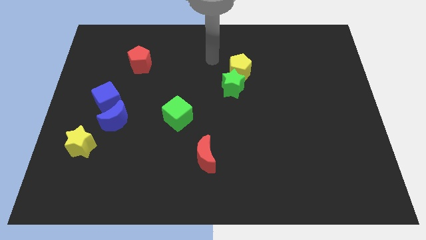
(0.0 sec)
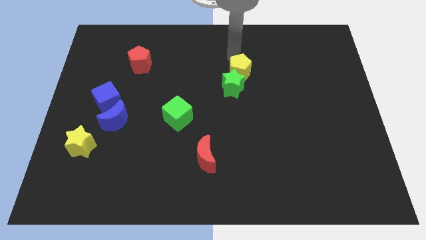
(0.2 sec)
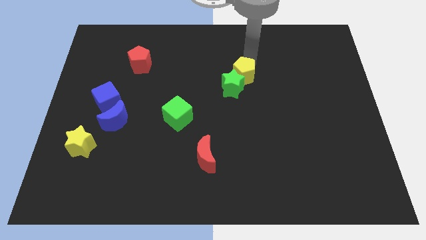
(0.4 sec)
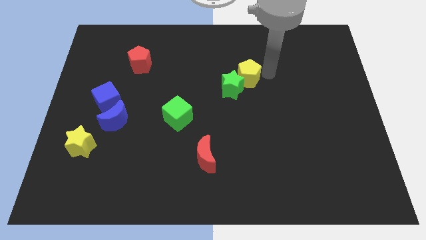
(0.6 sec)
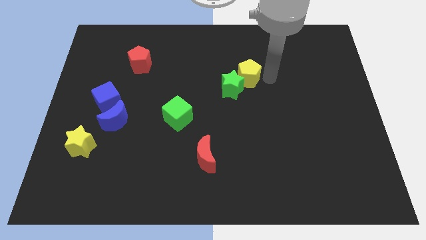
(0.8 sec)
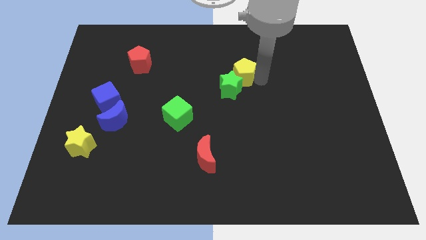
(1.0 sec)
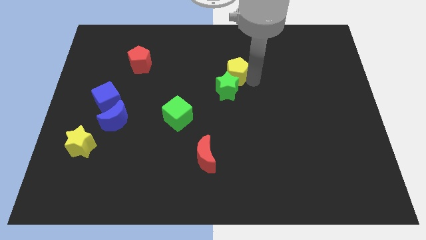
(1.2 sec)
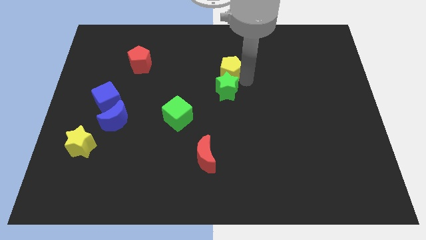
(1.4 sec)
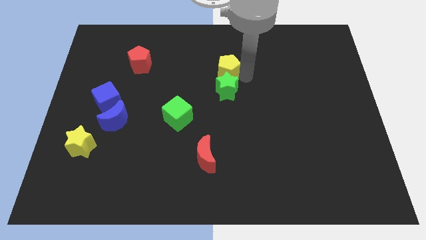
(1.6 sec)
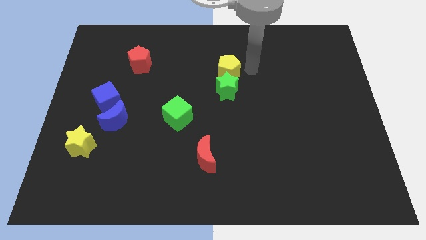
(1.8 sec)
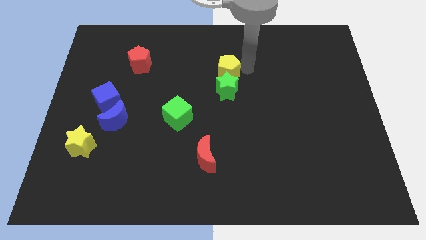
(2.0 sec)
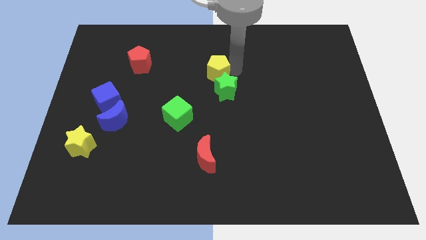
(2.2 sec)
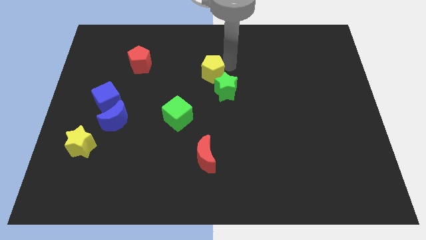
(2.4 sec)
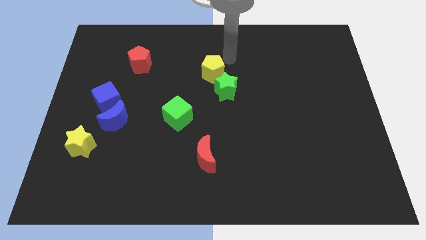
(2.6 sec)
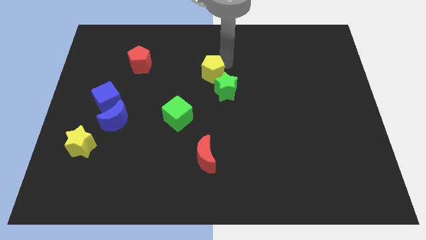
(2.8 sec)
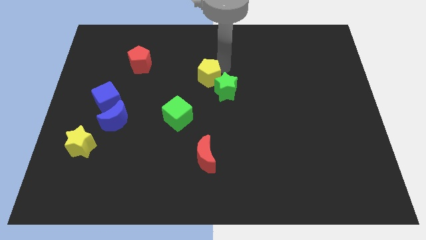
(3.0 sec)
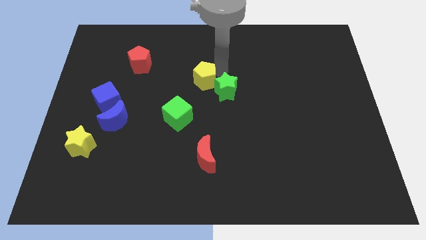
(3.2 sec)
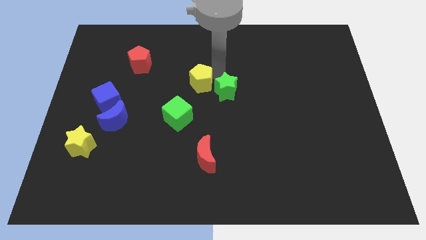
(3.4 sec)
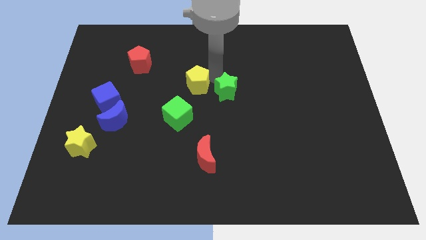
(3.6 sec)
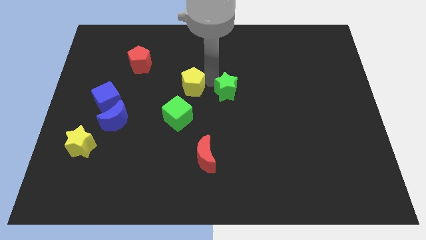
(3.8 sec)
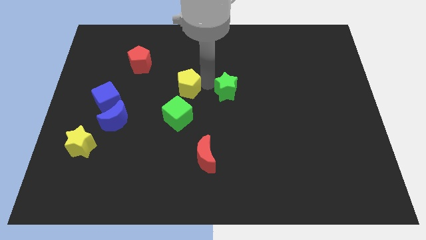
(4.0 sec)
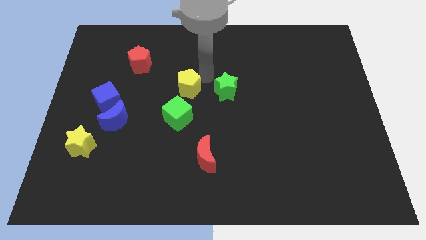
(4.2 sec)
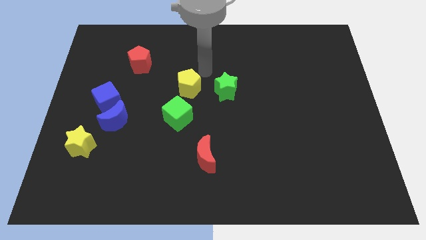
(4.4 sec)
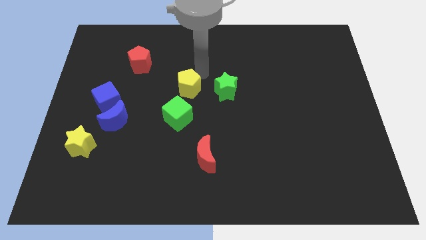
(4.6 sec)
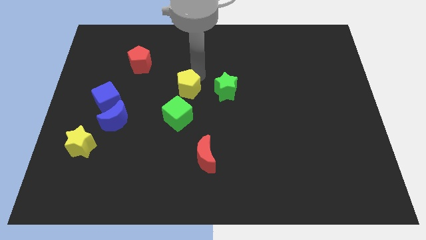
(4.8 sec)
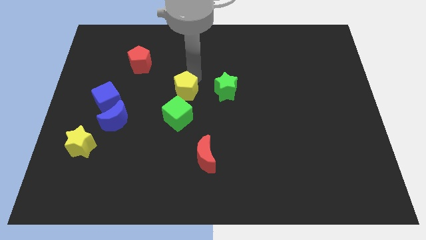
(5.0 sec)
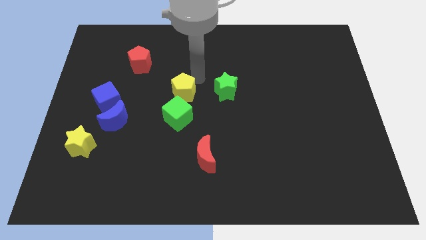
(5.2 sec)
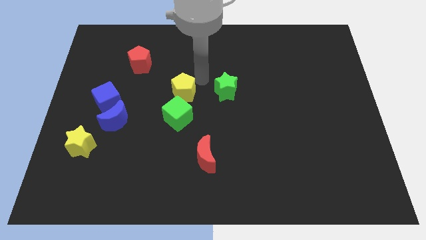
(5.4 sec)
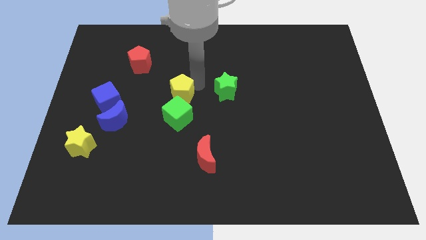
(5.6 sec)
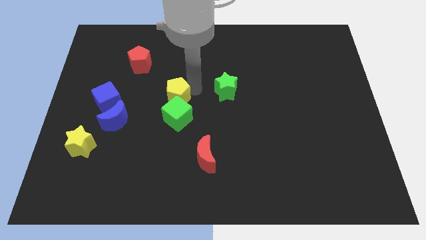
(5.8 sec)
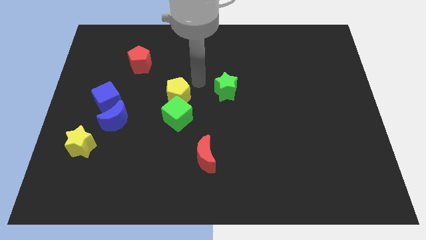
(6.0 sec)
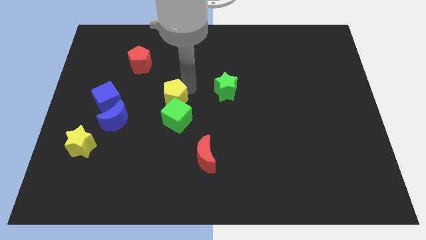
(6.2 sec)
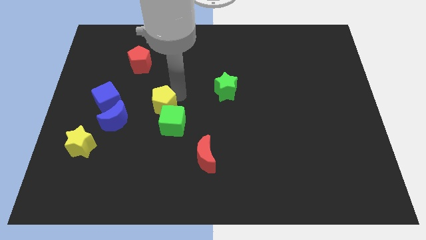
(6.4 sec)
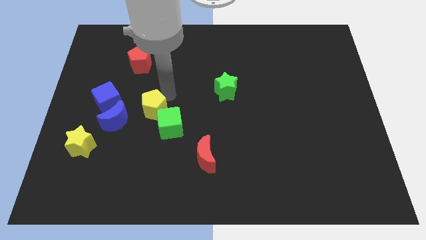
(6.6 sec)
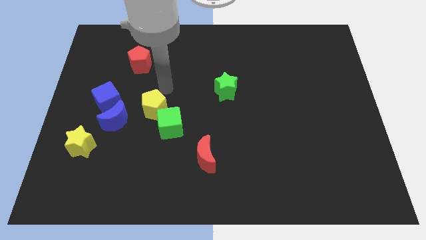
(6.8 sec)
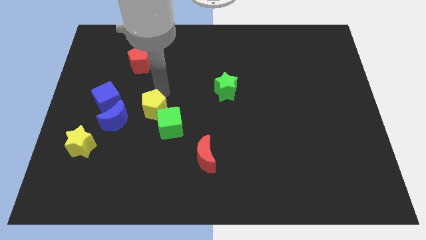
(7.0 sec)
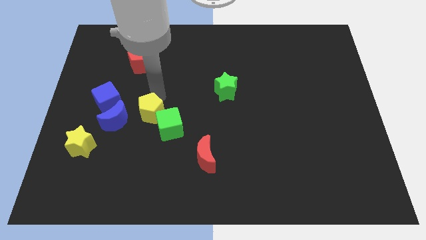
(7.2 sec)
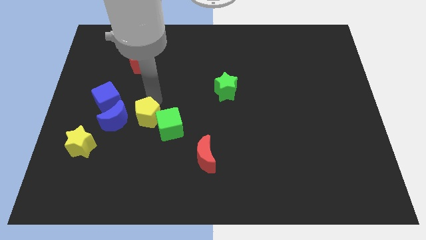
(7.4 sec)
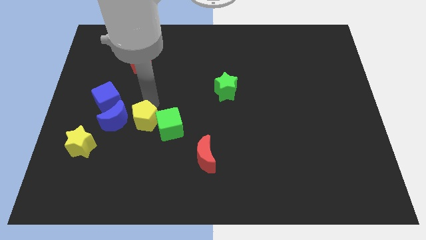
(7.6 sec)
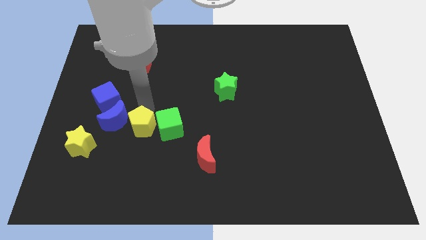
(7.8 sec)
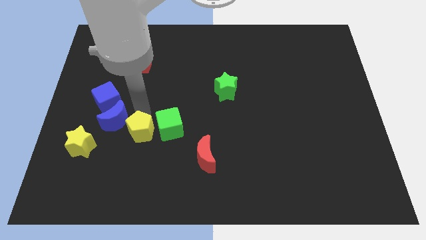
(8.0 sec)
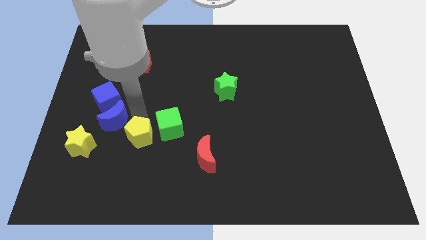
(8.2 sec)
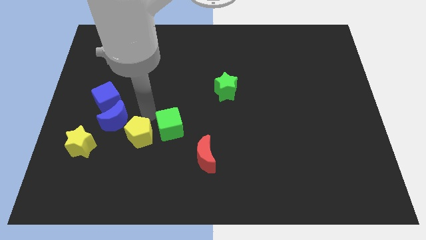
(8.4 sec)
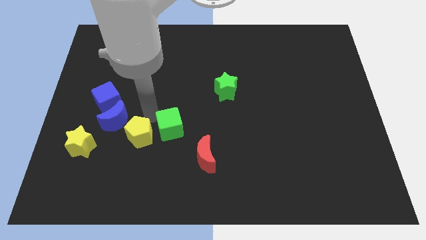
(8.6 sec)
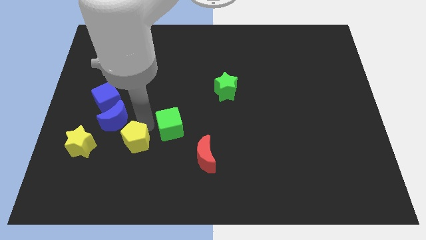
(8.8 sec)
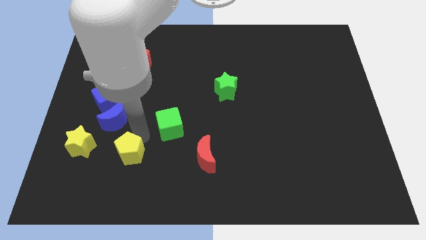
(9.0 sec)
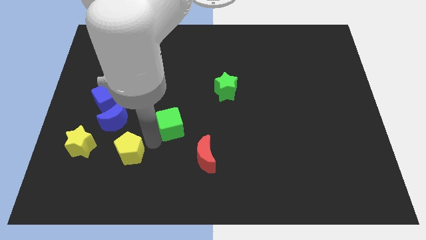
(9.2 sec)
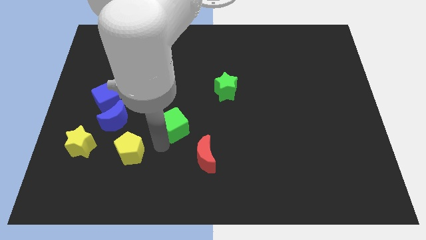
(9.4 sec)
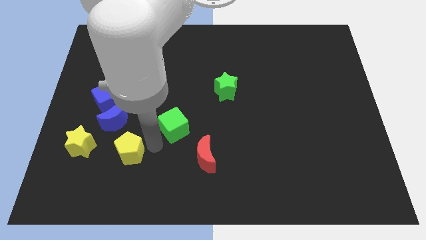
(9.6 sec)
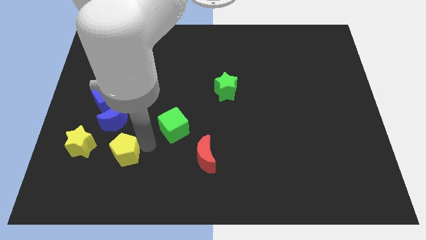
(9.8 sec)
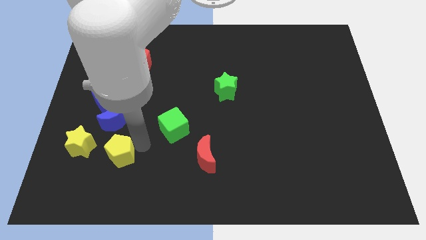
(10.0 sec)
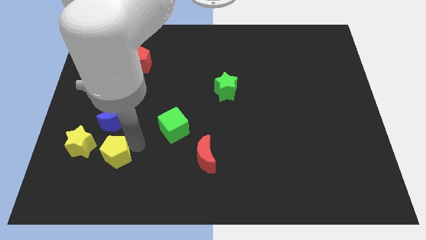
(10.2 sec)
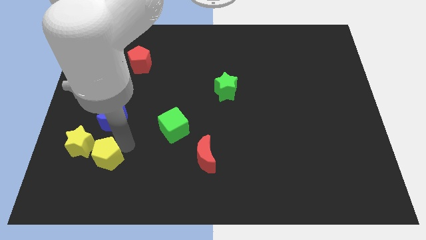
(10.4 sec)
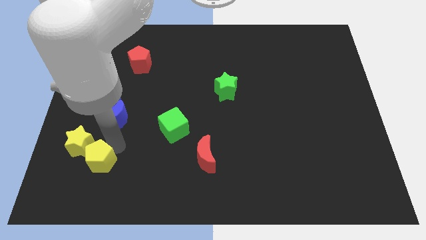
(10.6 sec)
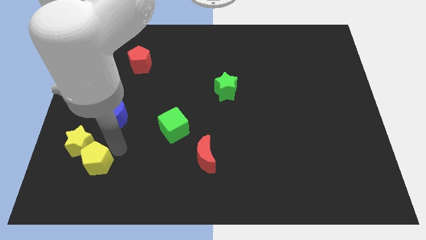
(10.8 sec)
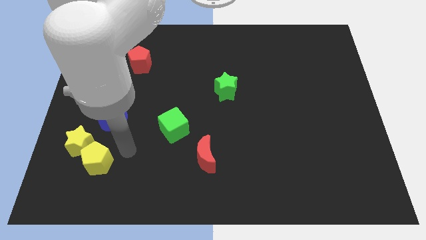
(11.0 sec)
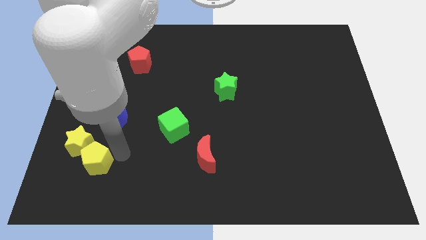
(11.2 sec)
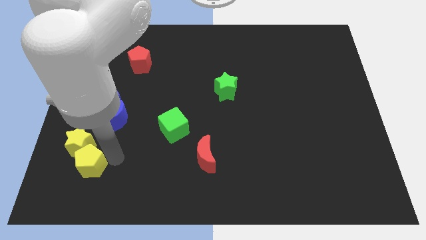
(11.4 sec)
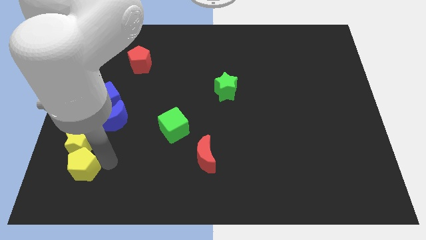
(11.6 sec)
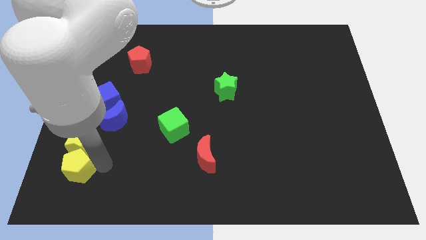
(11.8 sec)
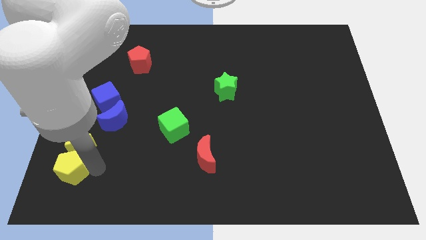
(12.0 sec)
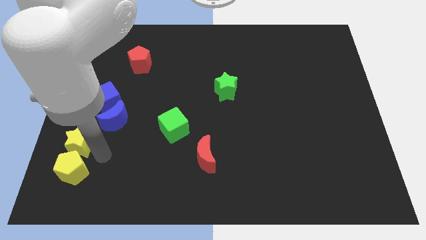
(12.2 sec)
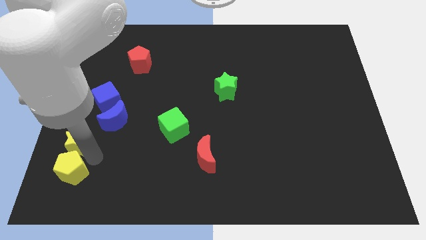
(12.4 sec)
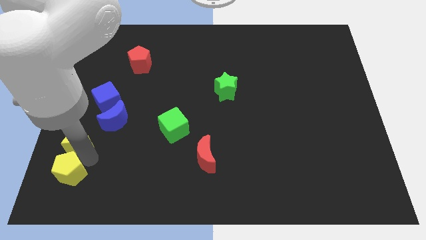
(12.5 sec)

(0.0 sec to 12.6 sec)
move the yellow pentagon to the bottom left

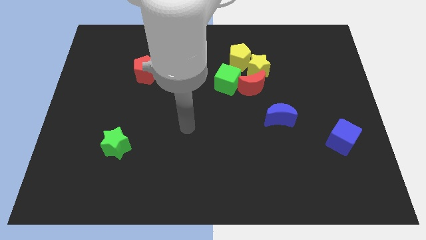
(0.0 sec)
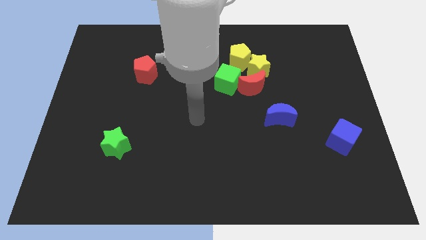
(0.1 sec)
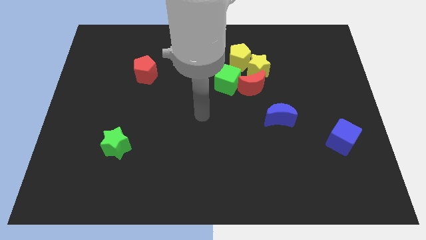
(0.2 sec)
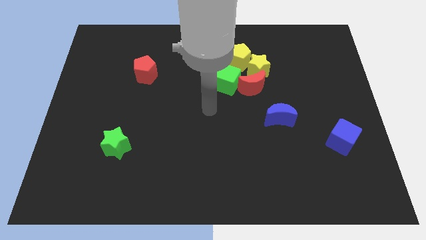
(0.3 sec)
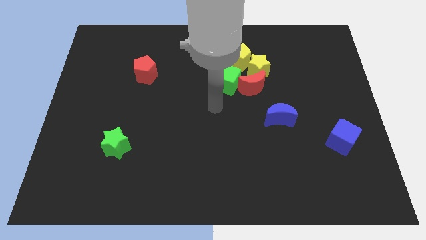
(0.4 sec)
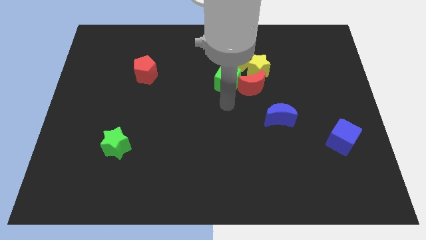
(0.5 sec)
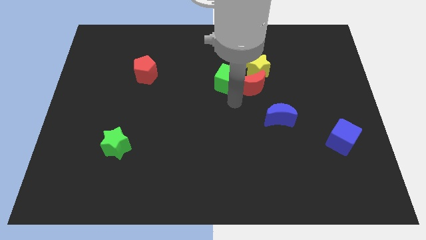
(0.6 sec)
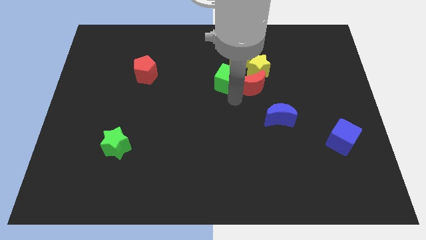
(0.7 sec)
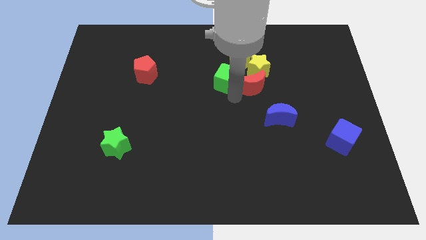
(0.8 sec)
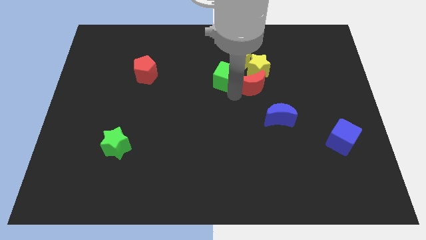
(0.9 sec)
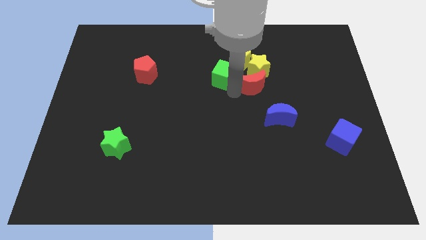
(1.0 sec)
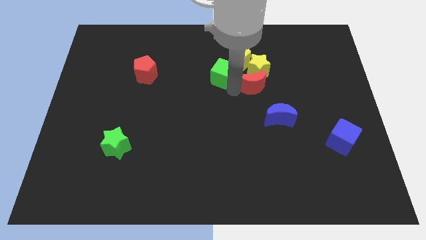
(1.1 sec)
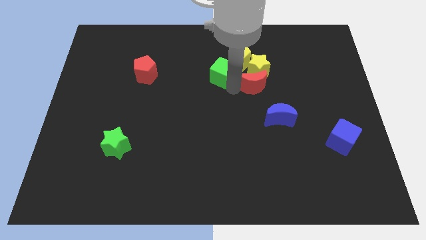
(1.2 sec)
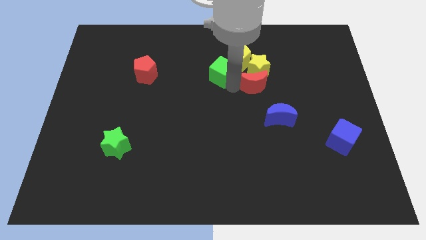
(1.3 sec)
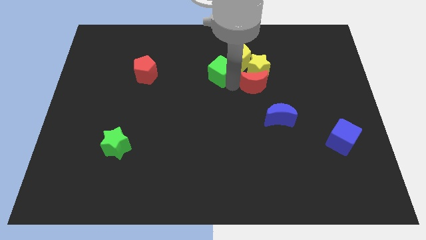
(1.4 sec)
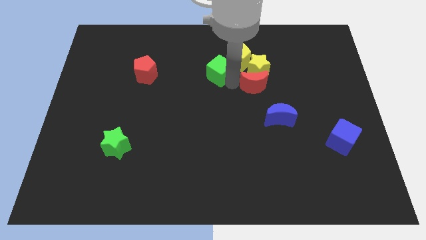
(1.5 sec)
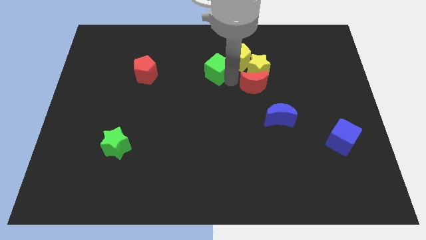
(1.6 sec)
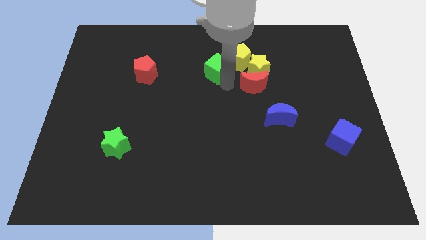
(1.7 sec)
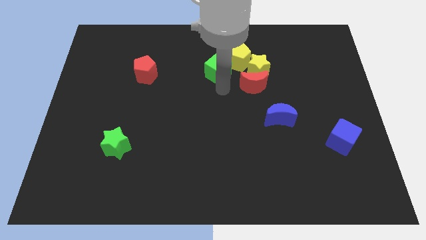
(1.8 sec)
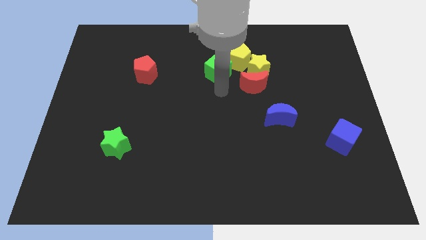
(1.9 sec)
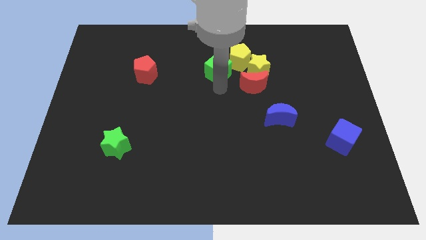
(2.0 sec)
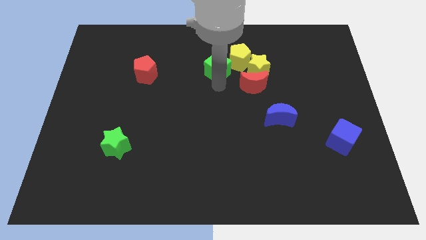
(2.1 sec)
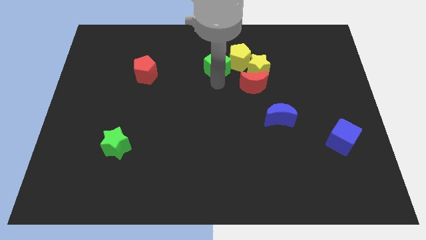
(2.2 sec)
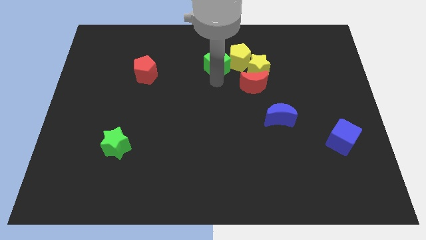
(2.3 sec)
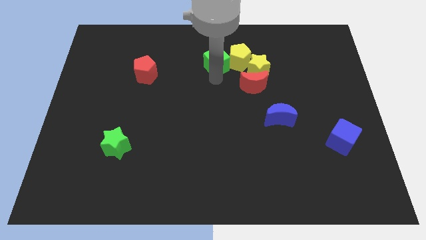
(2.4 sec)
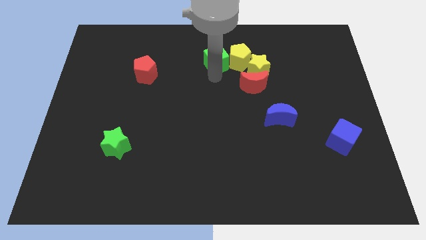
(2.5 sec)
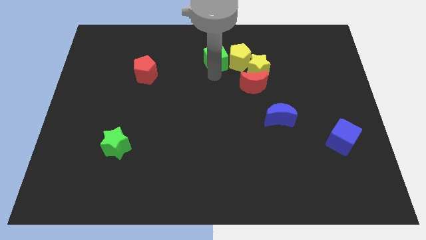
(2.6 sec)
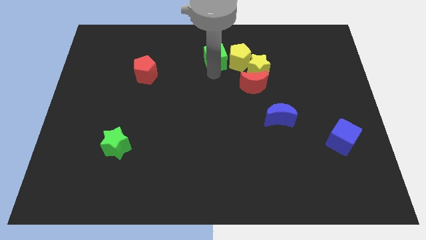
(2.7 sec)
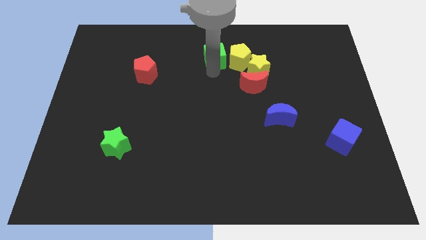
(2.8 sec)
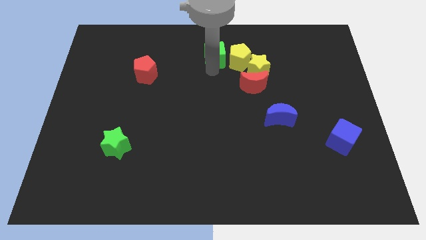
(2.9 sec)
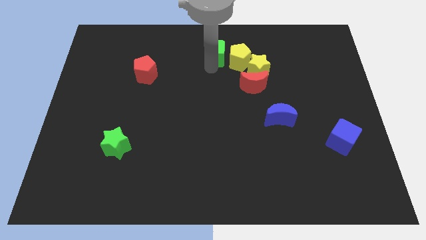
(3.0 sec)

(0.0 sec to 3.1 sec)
move the green cube to the top
